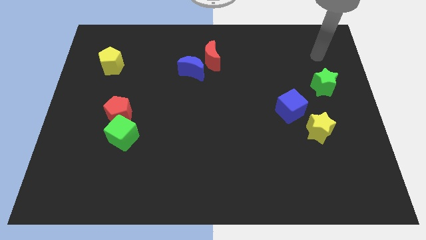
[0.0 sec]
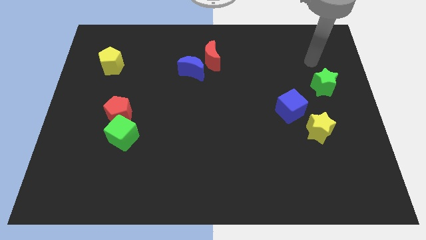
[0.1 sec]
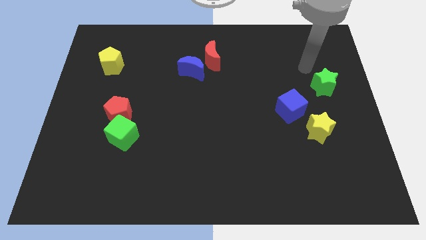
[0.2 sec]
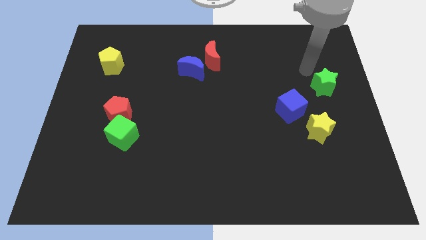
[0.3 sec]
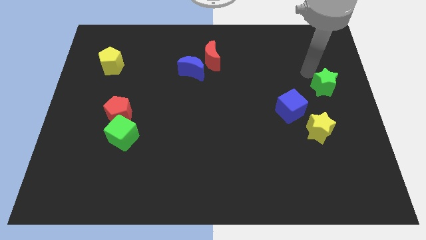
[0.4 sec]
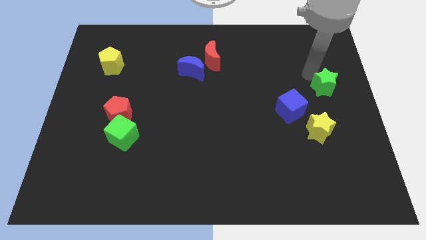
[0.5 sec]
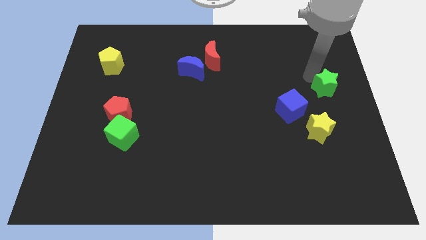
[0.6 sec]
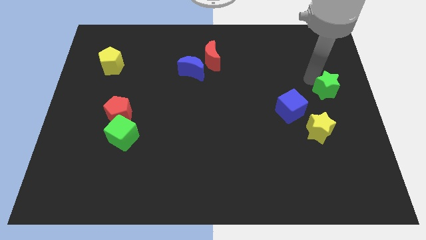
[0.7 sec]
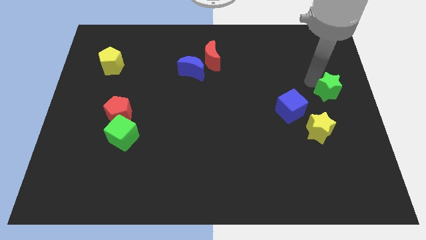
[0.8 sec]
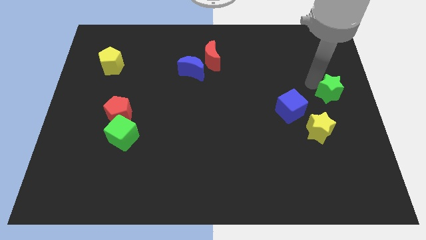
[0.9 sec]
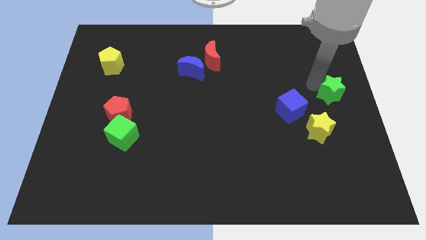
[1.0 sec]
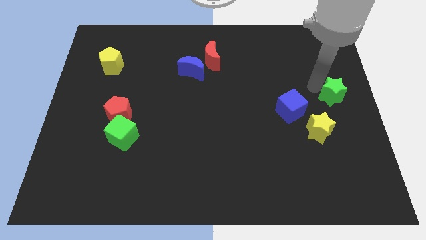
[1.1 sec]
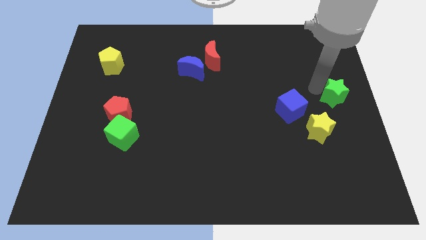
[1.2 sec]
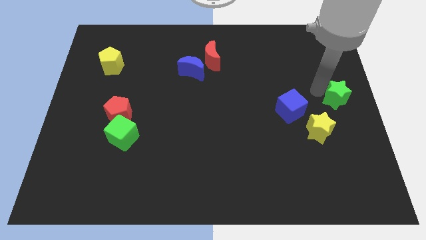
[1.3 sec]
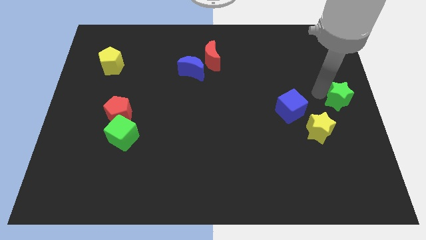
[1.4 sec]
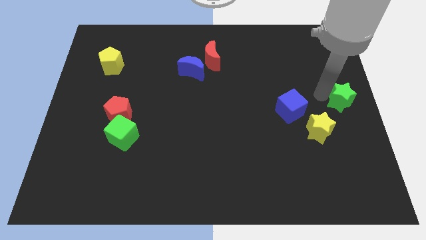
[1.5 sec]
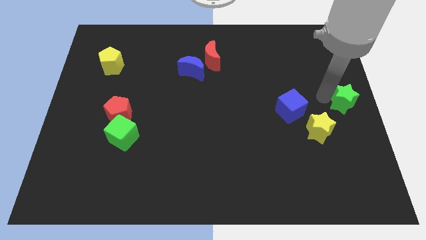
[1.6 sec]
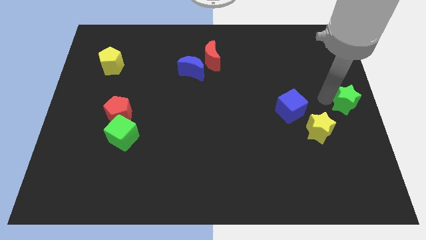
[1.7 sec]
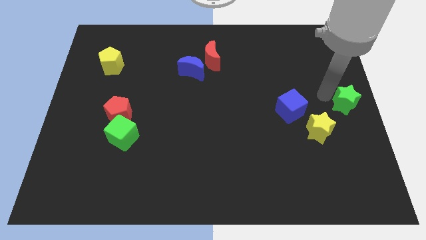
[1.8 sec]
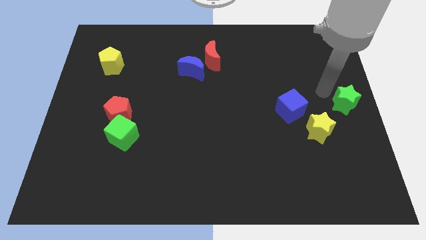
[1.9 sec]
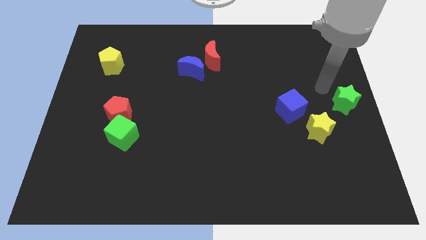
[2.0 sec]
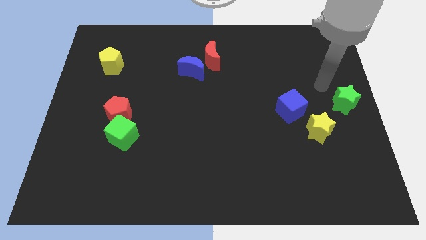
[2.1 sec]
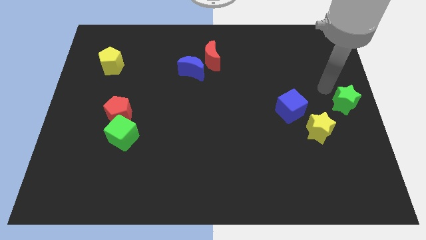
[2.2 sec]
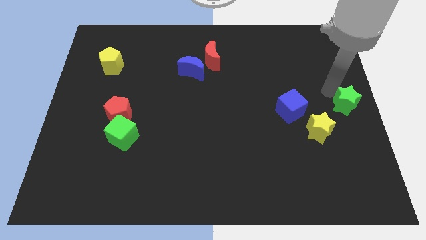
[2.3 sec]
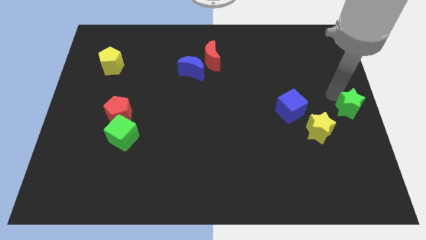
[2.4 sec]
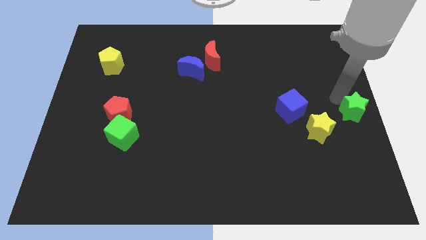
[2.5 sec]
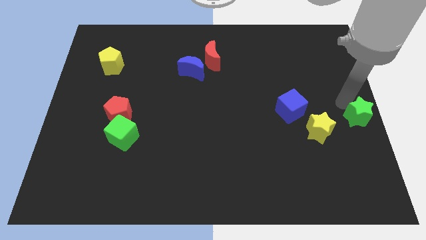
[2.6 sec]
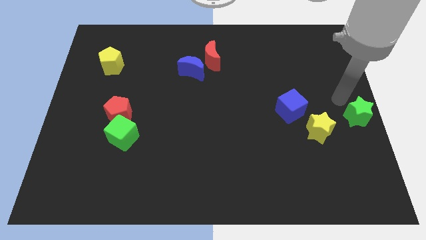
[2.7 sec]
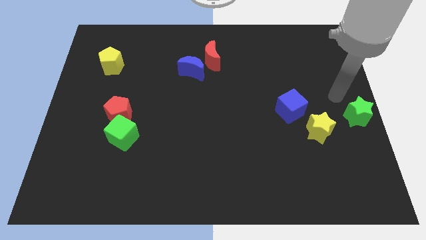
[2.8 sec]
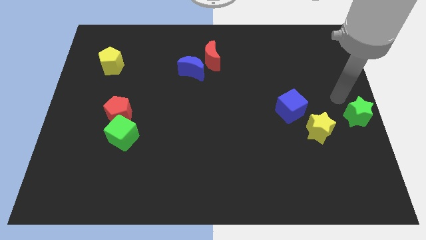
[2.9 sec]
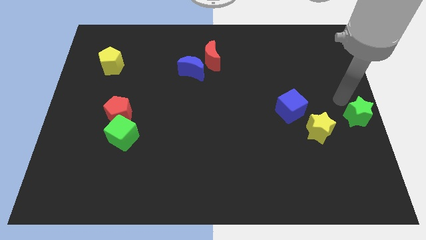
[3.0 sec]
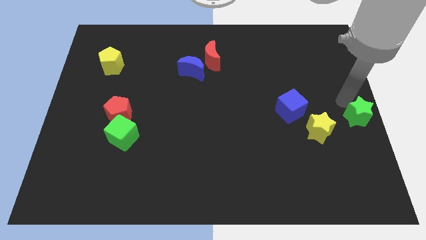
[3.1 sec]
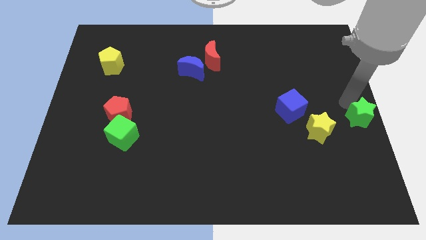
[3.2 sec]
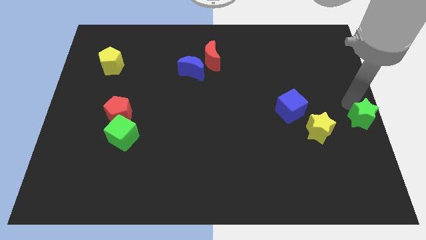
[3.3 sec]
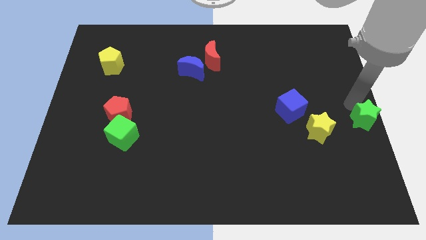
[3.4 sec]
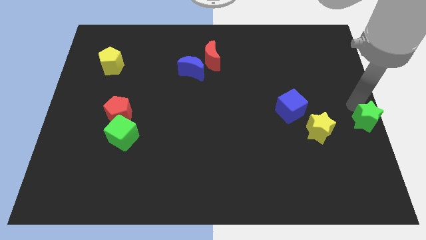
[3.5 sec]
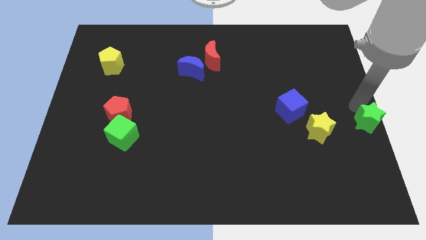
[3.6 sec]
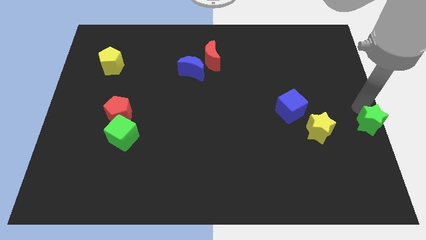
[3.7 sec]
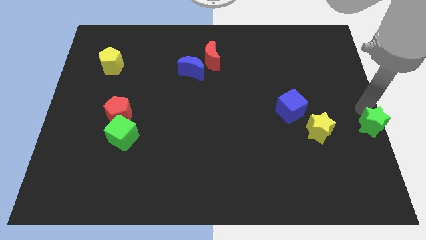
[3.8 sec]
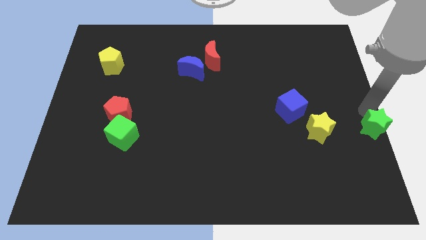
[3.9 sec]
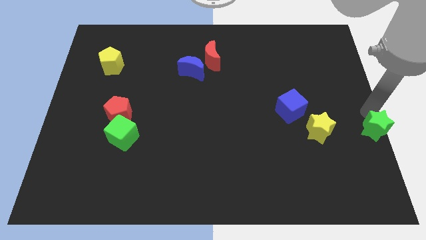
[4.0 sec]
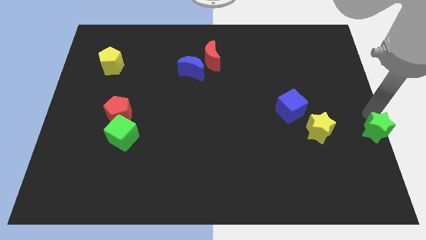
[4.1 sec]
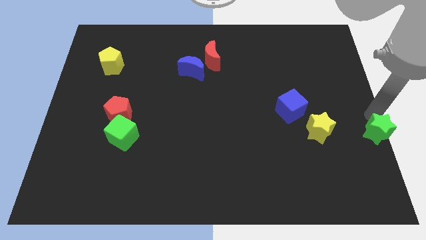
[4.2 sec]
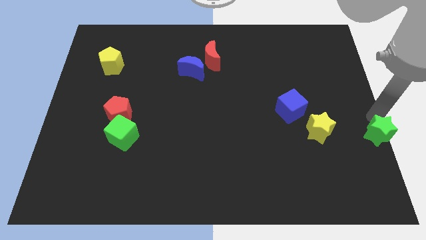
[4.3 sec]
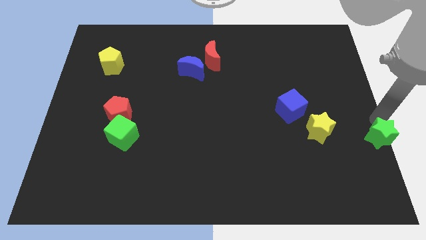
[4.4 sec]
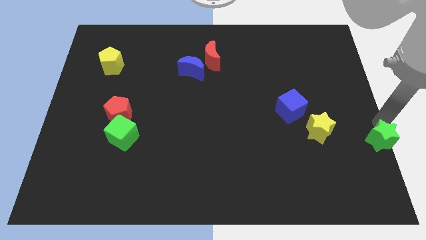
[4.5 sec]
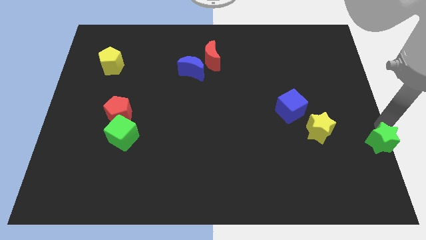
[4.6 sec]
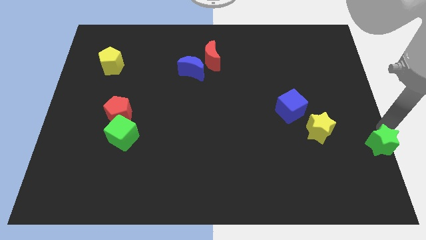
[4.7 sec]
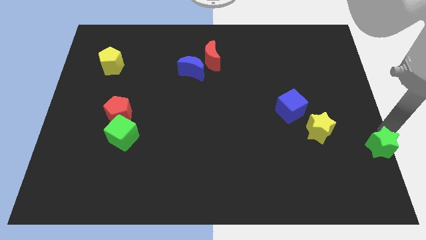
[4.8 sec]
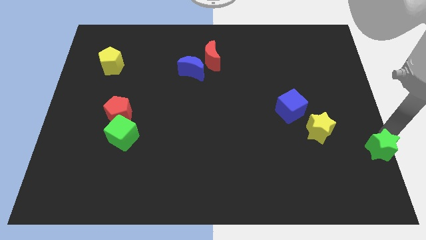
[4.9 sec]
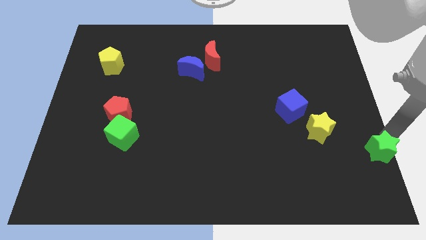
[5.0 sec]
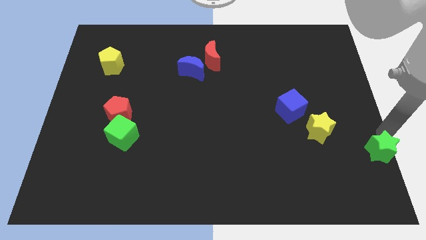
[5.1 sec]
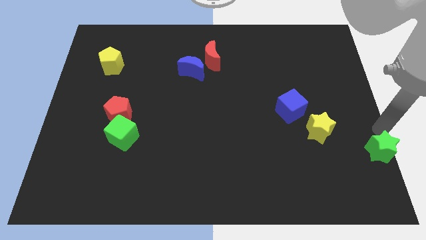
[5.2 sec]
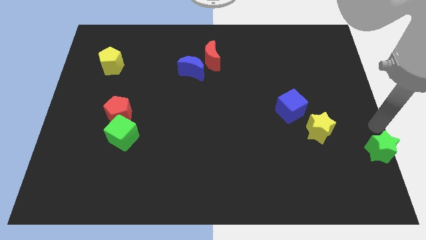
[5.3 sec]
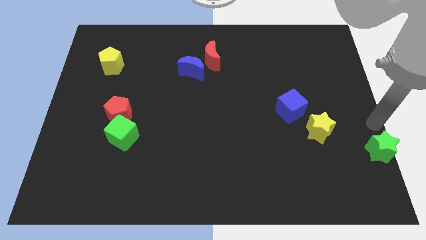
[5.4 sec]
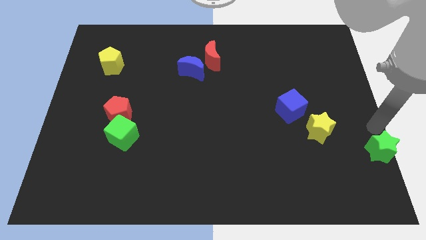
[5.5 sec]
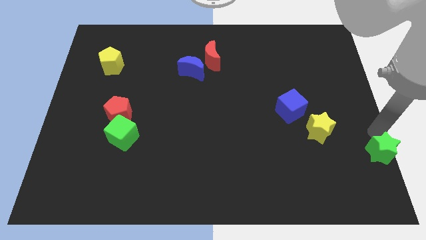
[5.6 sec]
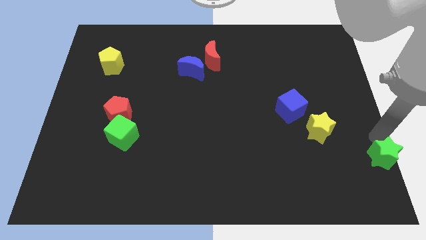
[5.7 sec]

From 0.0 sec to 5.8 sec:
move the green star to the bottom right of the board
